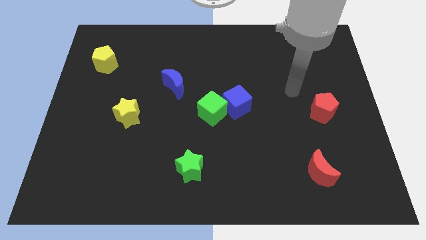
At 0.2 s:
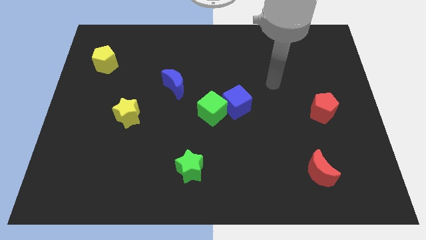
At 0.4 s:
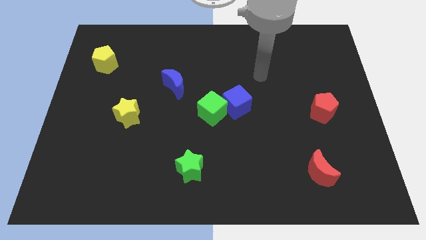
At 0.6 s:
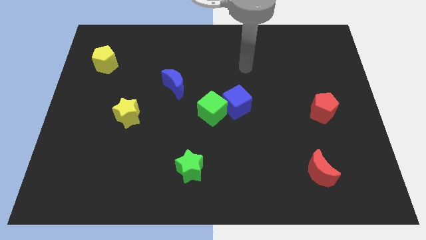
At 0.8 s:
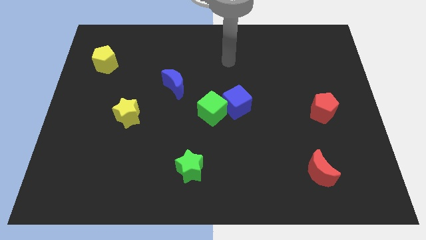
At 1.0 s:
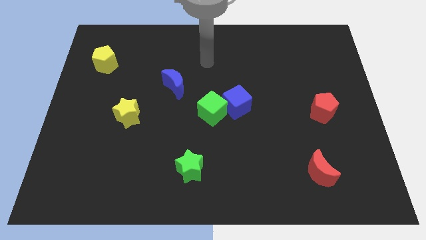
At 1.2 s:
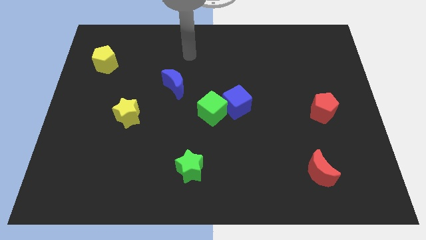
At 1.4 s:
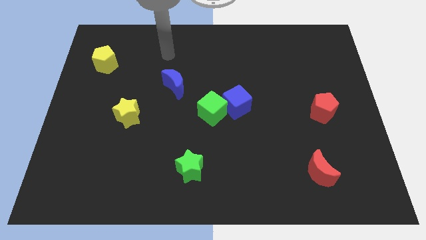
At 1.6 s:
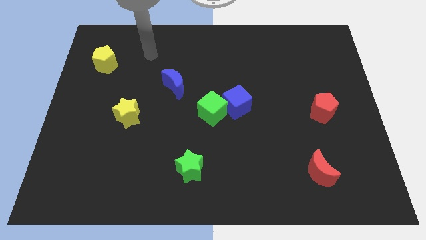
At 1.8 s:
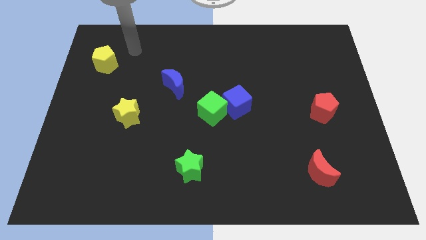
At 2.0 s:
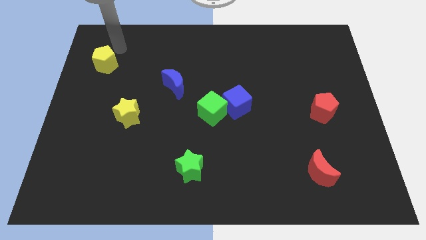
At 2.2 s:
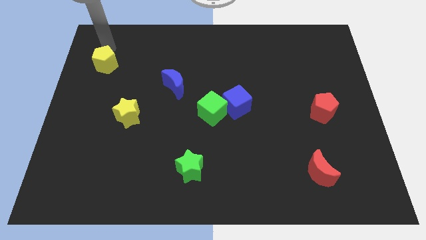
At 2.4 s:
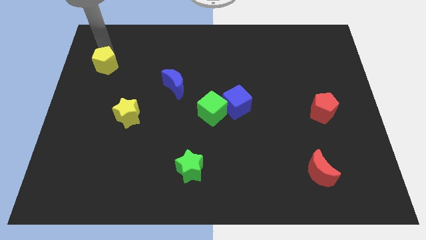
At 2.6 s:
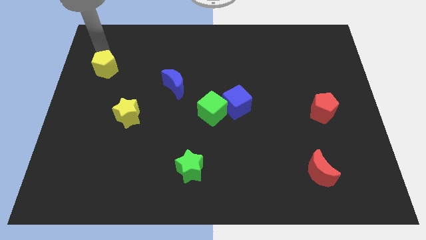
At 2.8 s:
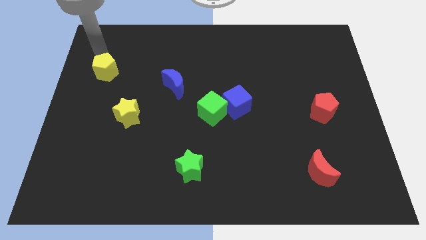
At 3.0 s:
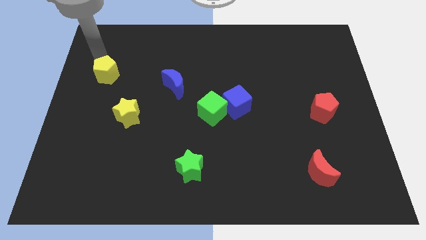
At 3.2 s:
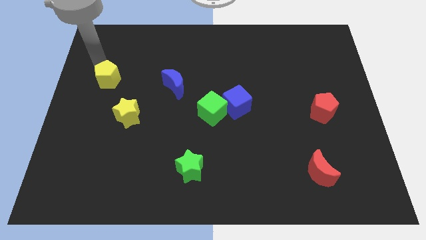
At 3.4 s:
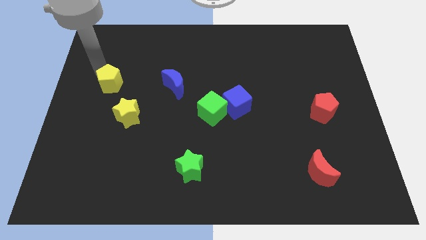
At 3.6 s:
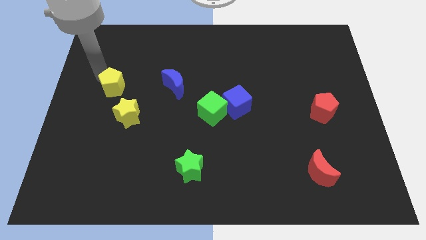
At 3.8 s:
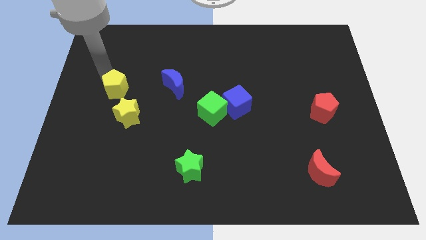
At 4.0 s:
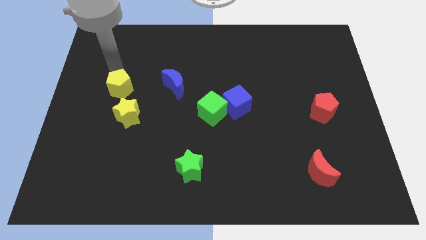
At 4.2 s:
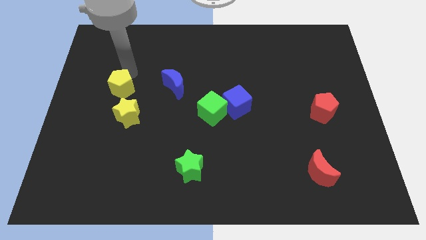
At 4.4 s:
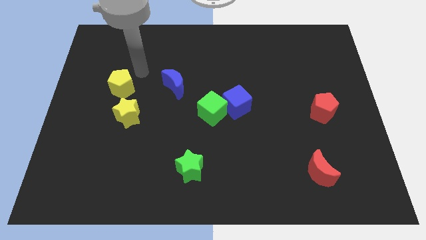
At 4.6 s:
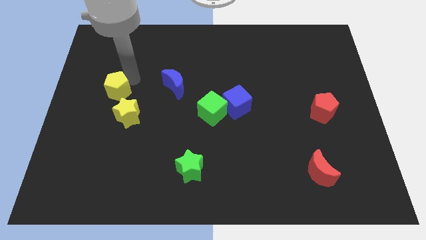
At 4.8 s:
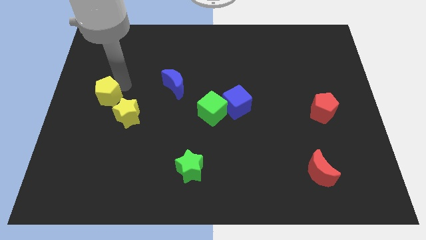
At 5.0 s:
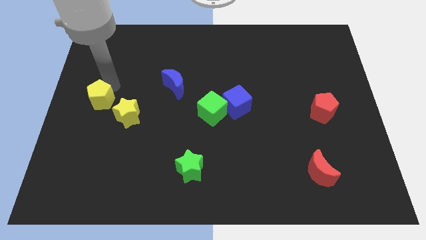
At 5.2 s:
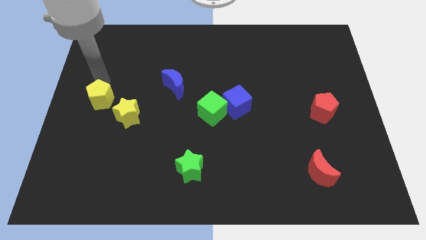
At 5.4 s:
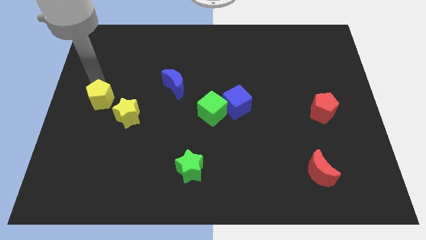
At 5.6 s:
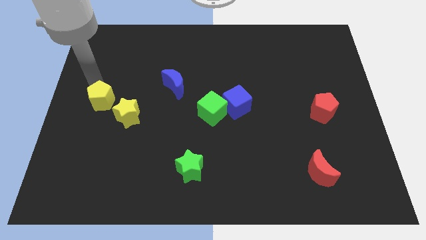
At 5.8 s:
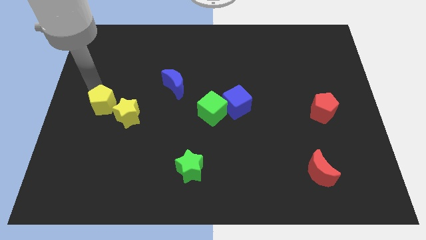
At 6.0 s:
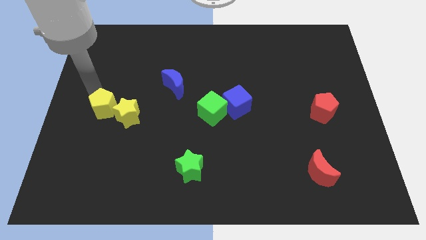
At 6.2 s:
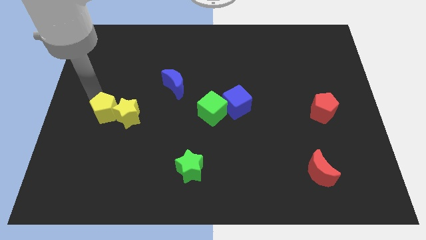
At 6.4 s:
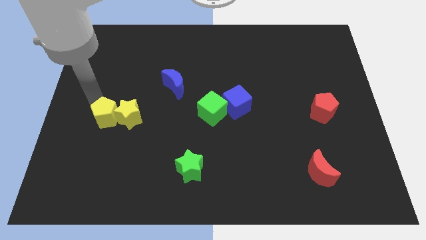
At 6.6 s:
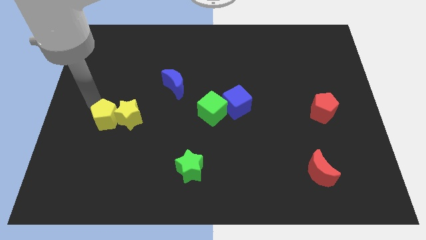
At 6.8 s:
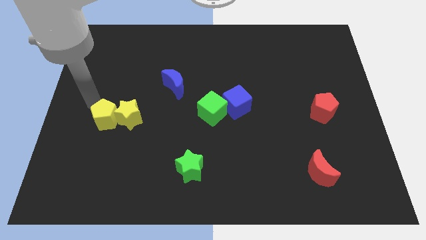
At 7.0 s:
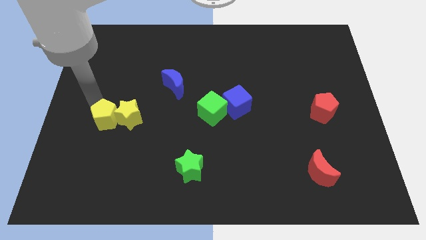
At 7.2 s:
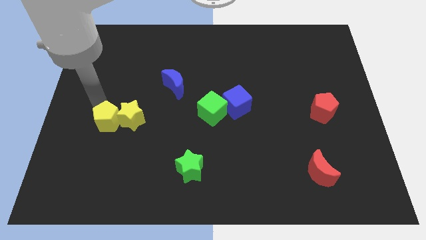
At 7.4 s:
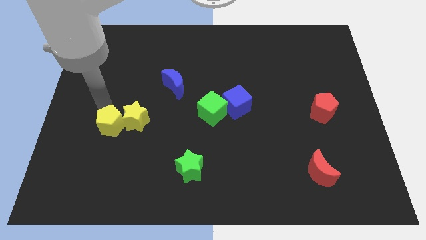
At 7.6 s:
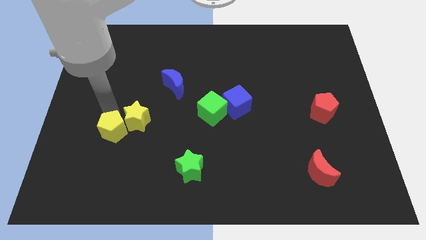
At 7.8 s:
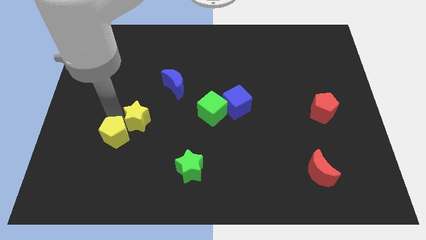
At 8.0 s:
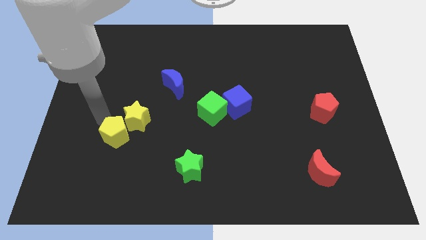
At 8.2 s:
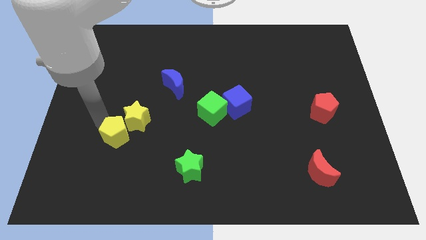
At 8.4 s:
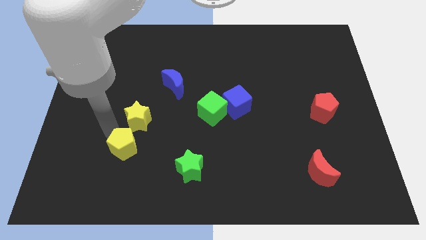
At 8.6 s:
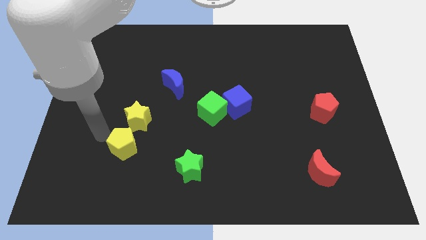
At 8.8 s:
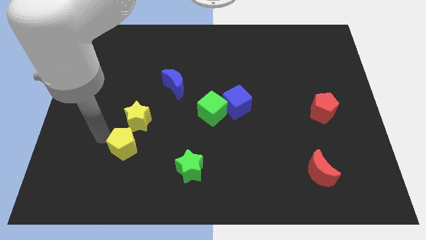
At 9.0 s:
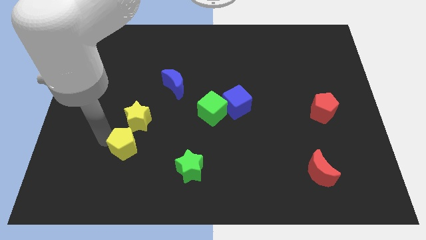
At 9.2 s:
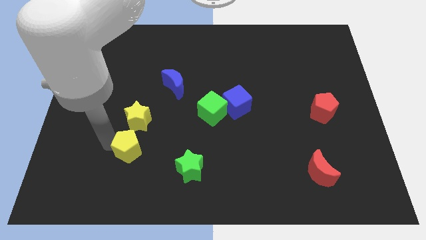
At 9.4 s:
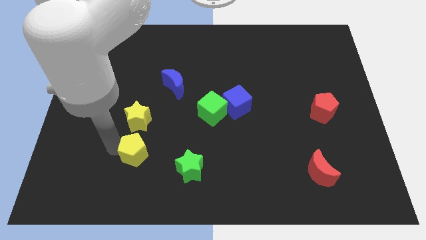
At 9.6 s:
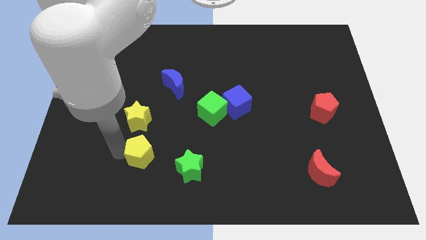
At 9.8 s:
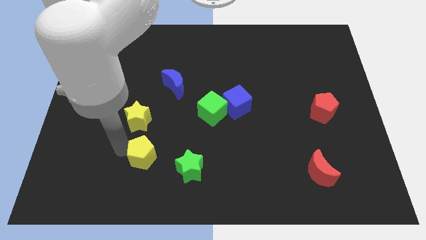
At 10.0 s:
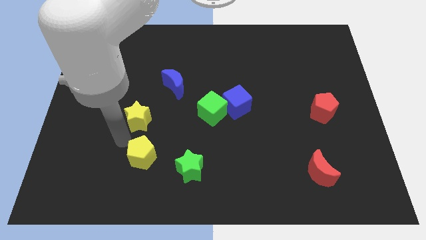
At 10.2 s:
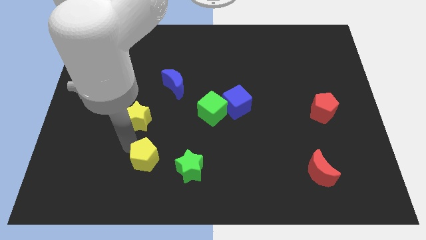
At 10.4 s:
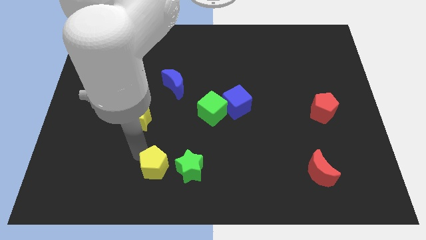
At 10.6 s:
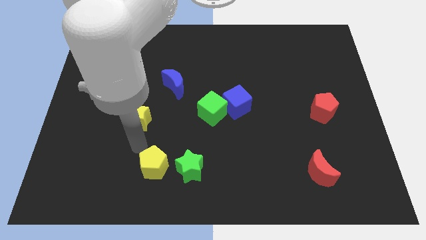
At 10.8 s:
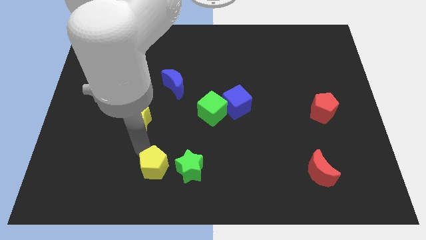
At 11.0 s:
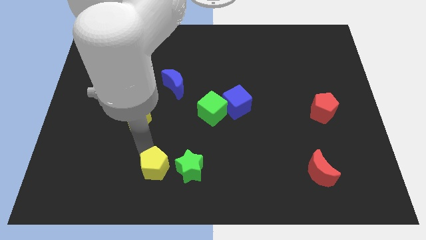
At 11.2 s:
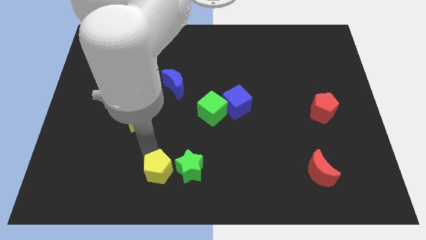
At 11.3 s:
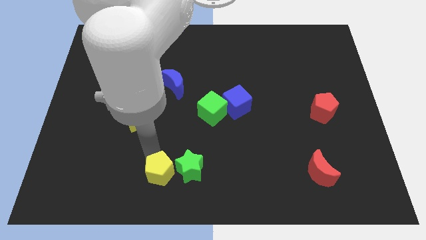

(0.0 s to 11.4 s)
put the yellow pentagon to the bottom side
